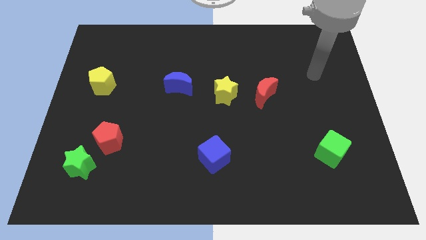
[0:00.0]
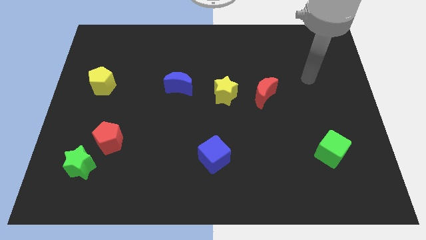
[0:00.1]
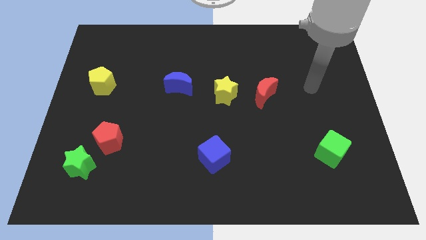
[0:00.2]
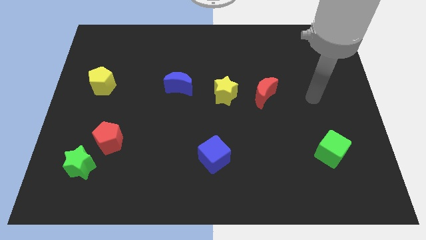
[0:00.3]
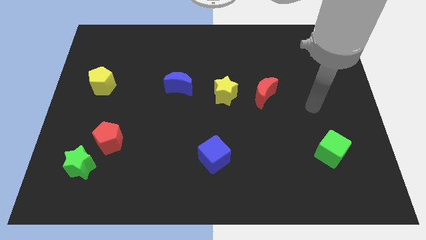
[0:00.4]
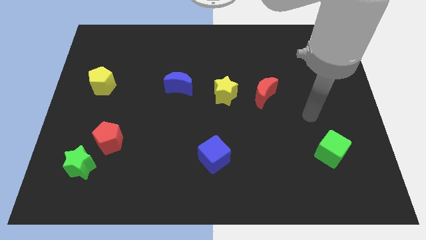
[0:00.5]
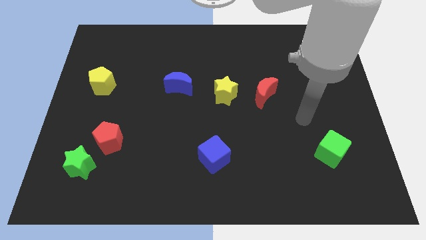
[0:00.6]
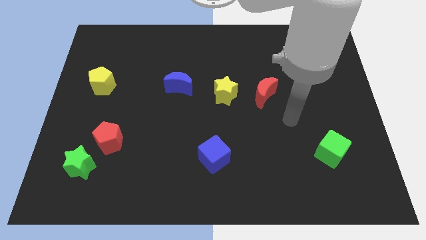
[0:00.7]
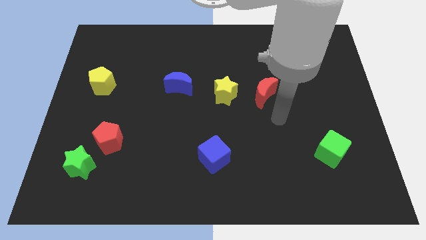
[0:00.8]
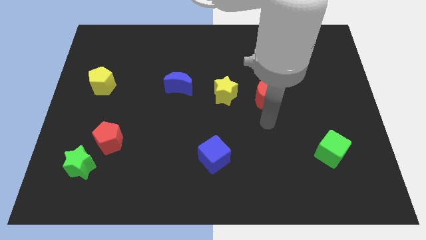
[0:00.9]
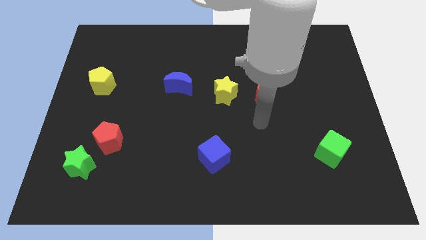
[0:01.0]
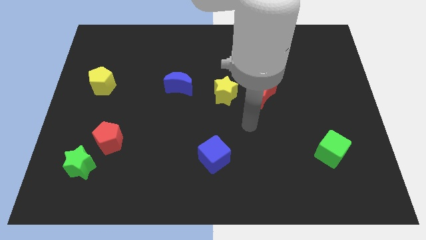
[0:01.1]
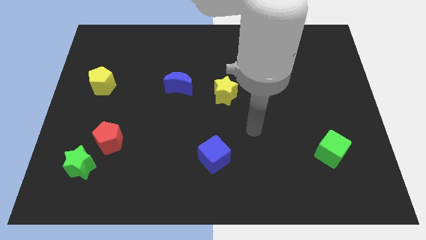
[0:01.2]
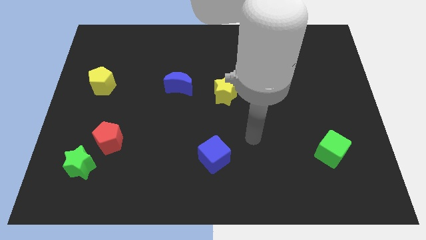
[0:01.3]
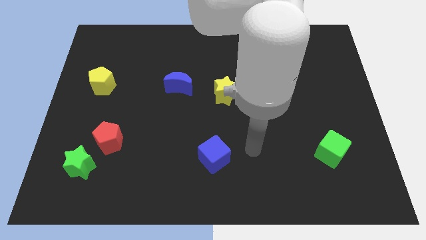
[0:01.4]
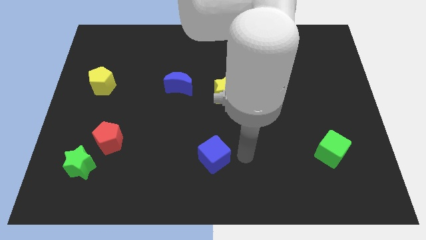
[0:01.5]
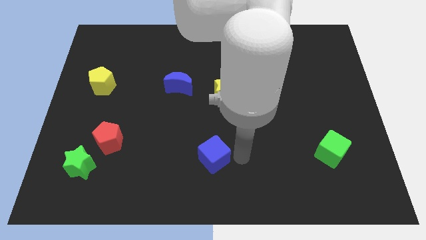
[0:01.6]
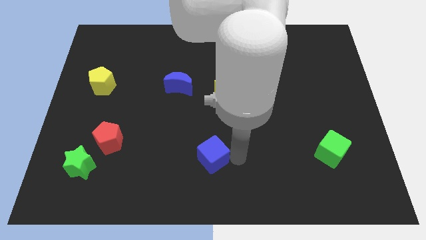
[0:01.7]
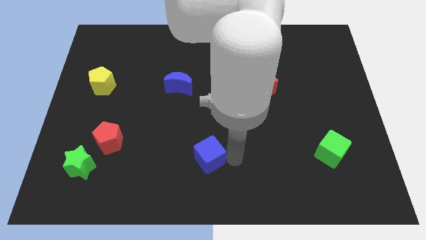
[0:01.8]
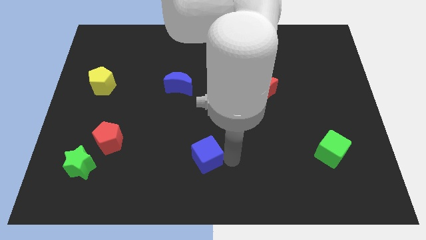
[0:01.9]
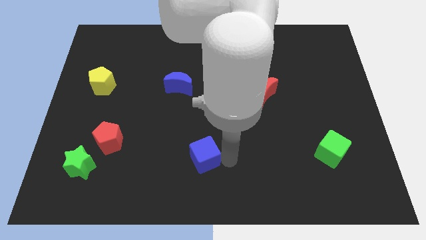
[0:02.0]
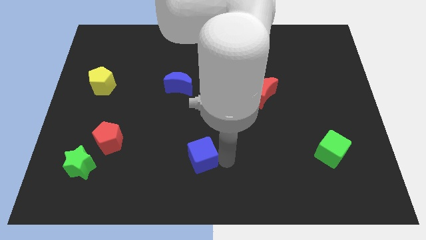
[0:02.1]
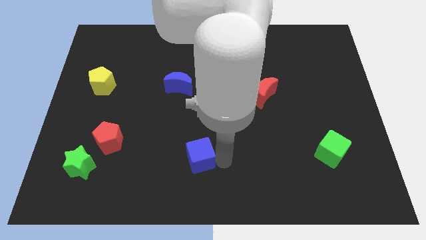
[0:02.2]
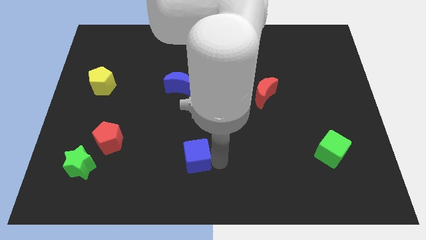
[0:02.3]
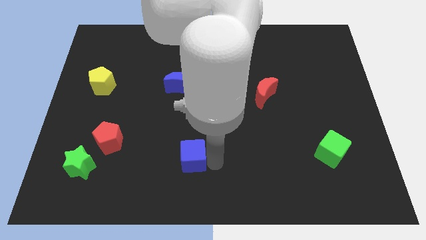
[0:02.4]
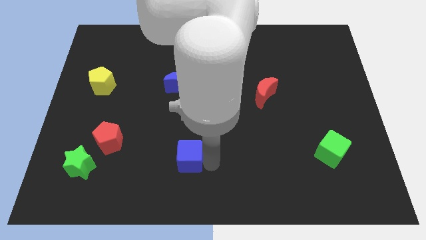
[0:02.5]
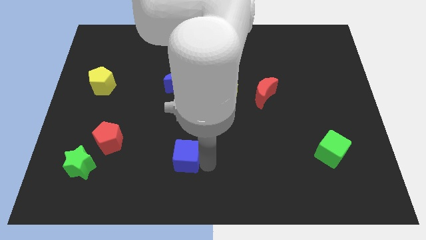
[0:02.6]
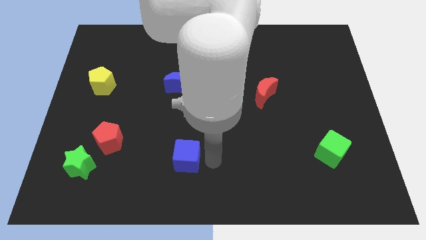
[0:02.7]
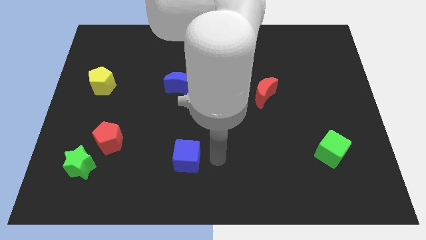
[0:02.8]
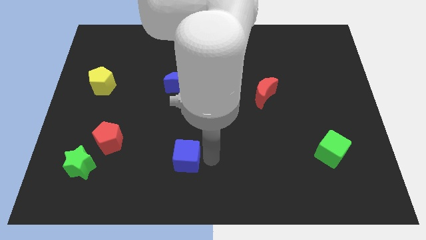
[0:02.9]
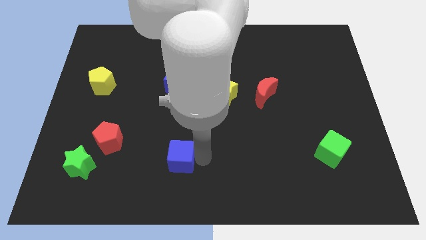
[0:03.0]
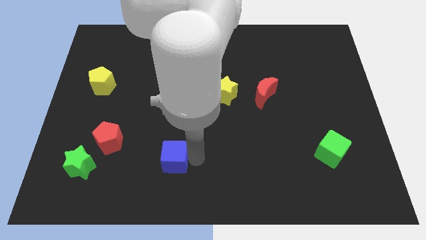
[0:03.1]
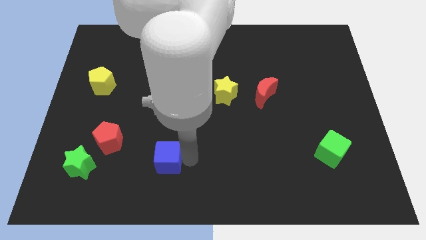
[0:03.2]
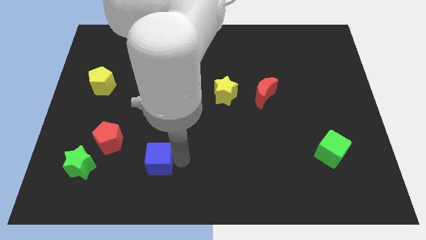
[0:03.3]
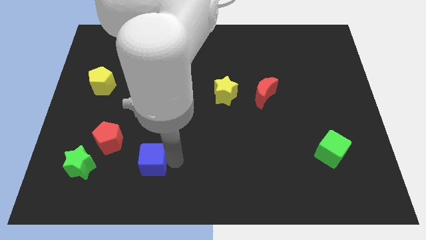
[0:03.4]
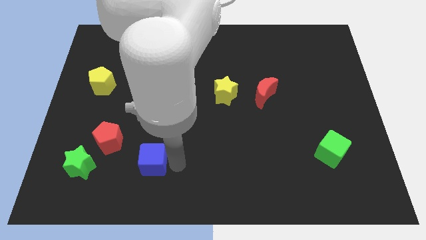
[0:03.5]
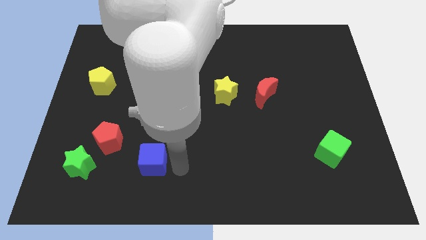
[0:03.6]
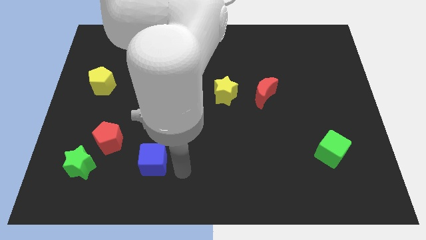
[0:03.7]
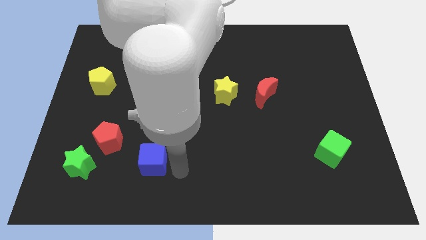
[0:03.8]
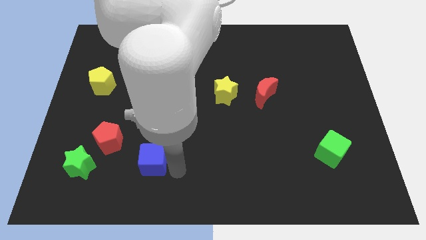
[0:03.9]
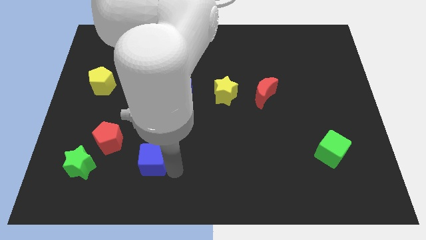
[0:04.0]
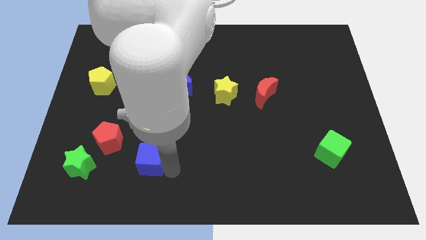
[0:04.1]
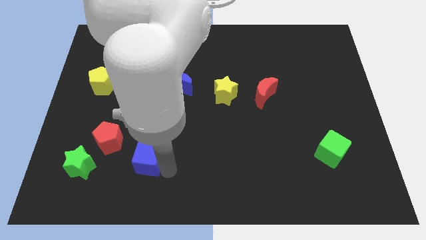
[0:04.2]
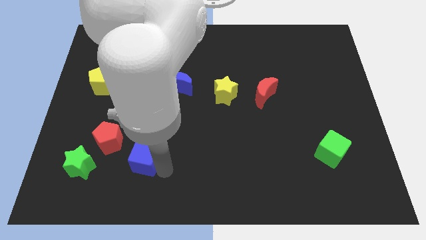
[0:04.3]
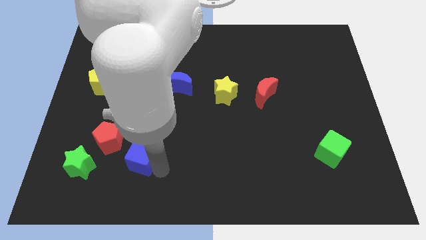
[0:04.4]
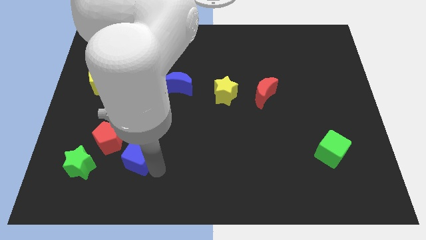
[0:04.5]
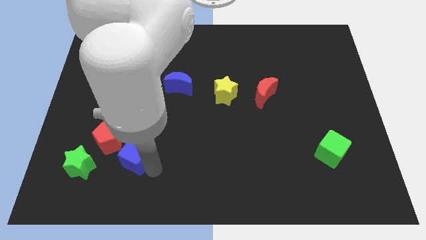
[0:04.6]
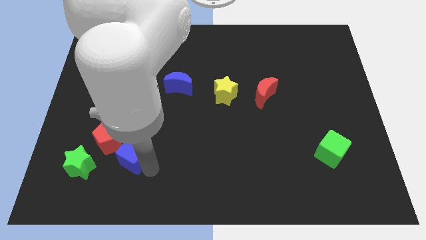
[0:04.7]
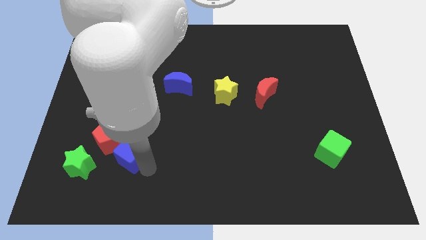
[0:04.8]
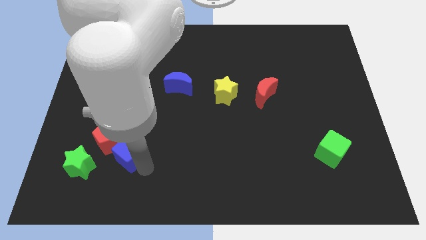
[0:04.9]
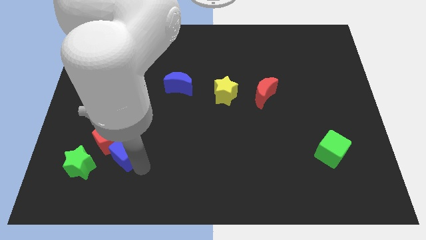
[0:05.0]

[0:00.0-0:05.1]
push the blue cube close to the red pentagon

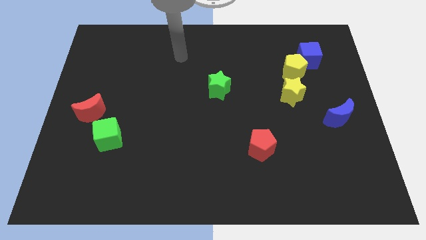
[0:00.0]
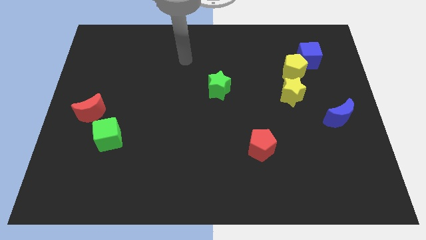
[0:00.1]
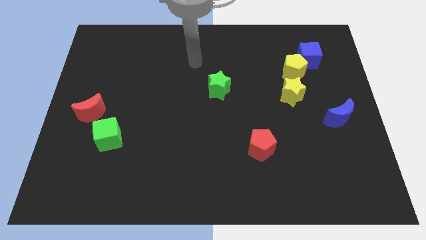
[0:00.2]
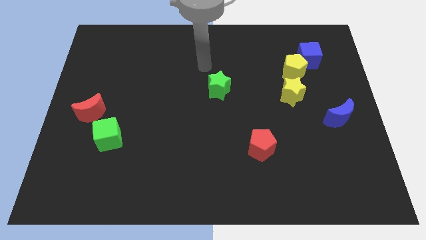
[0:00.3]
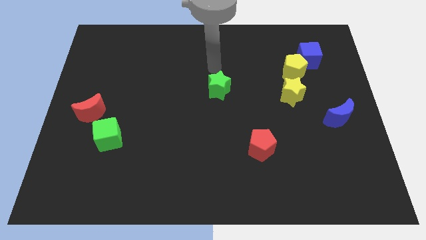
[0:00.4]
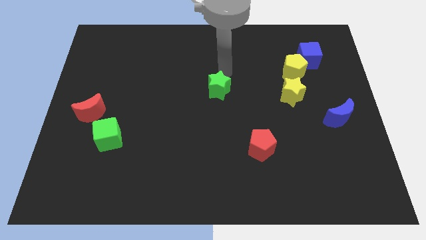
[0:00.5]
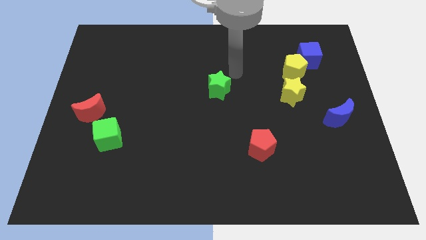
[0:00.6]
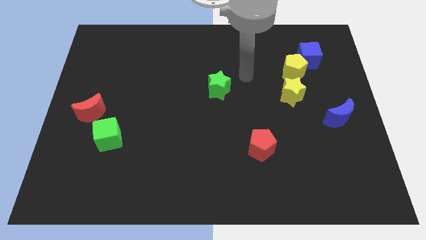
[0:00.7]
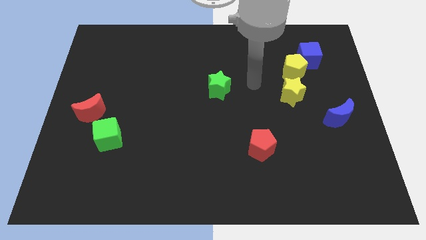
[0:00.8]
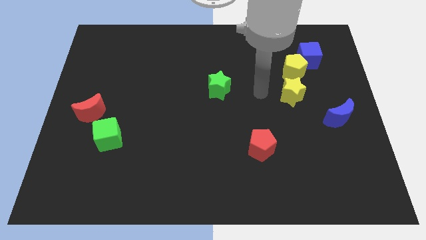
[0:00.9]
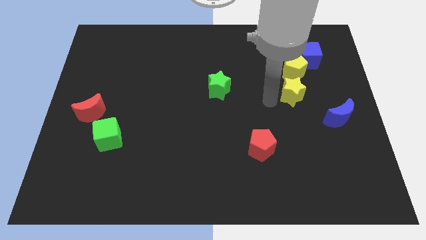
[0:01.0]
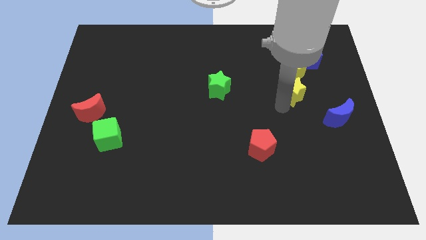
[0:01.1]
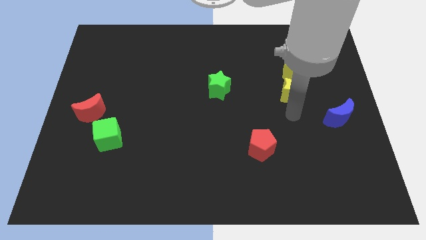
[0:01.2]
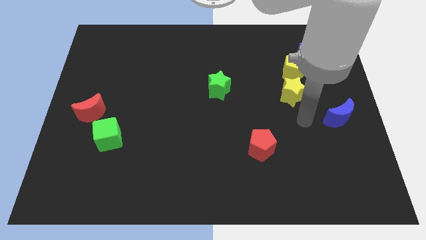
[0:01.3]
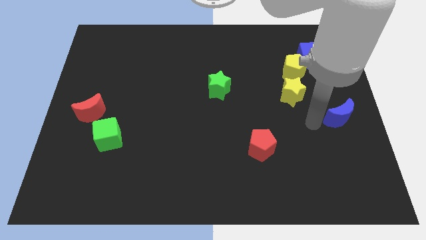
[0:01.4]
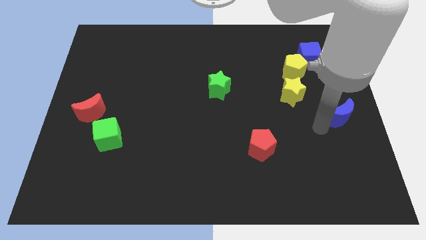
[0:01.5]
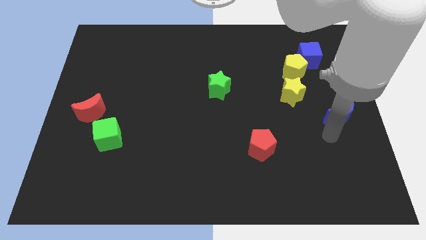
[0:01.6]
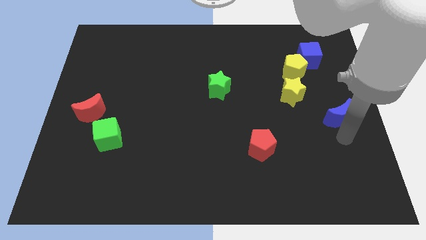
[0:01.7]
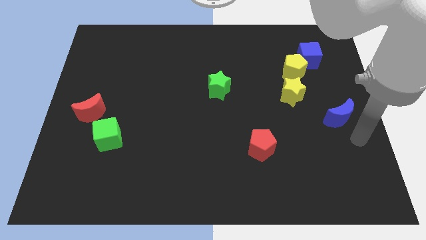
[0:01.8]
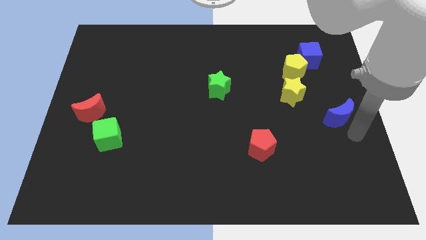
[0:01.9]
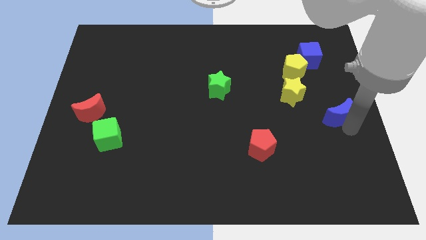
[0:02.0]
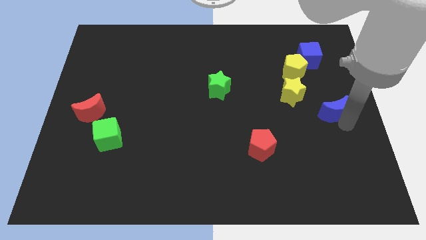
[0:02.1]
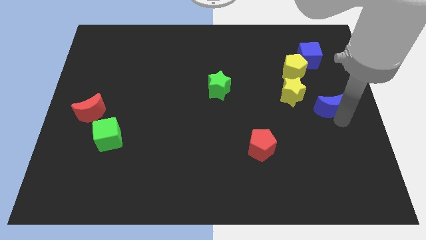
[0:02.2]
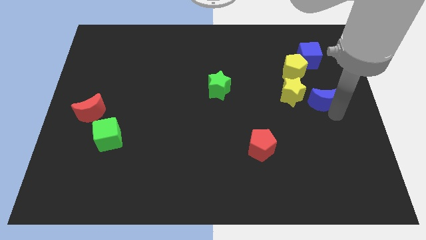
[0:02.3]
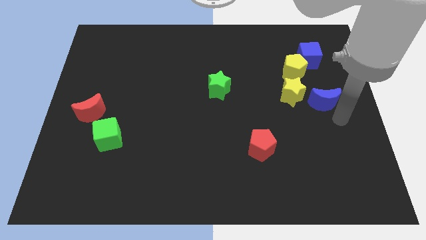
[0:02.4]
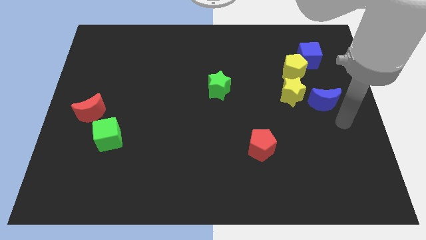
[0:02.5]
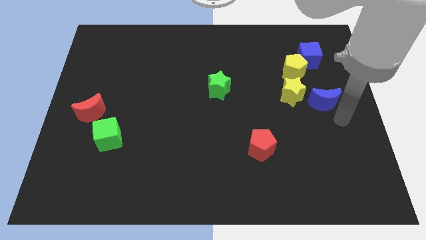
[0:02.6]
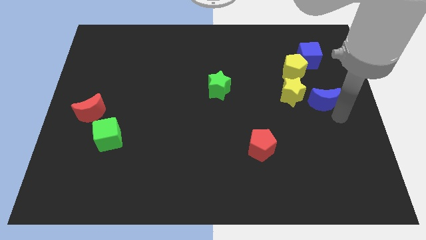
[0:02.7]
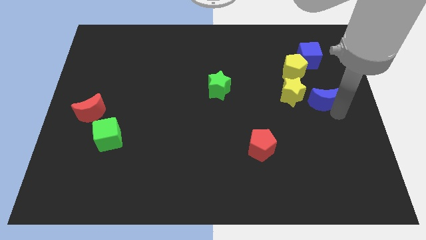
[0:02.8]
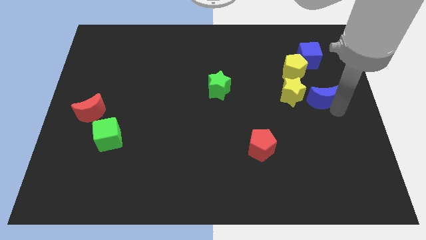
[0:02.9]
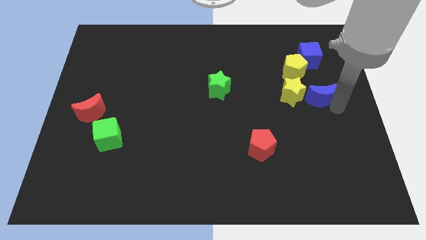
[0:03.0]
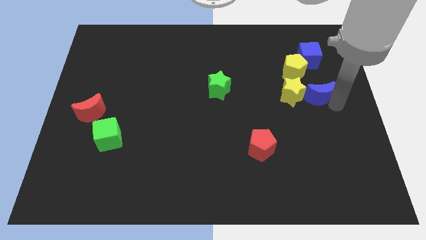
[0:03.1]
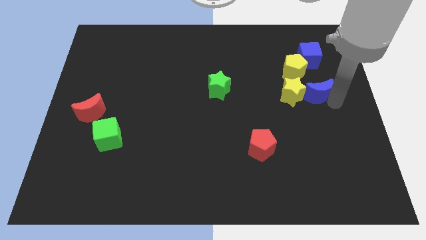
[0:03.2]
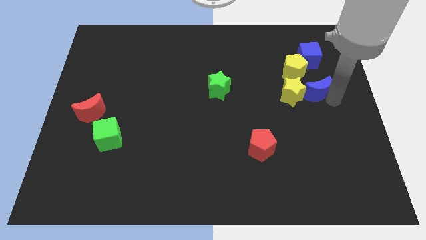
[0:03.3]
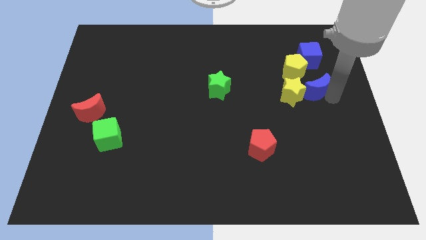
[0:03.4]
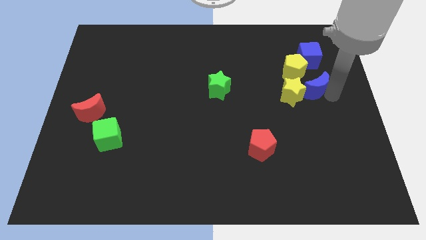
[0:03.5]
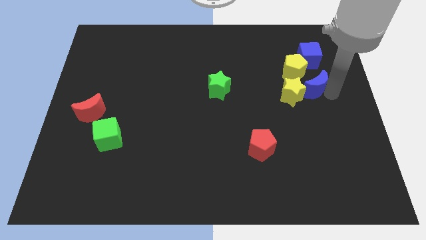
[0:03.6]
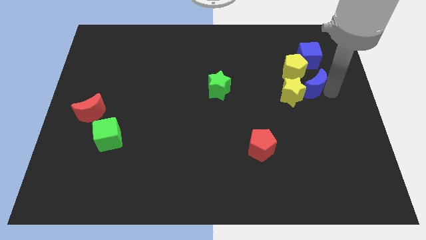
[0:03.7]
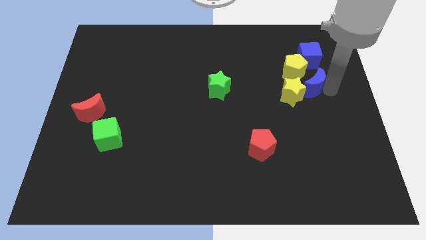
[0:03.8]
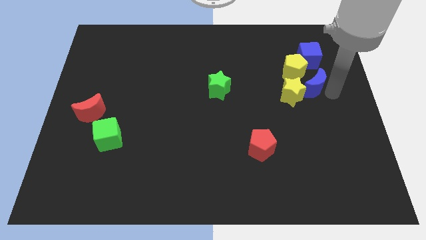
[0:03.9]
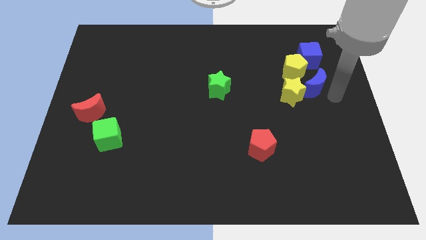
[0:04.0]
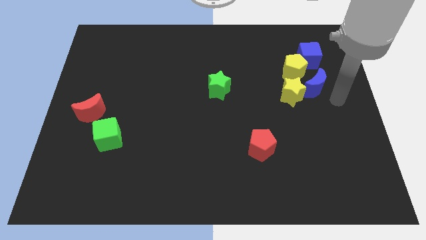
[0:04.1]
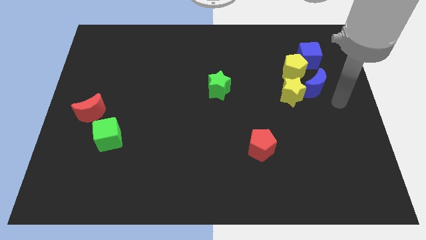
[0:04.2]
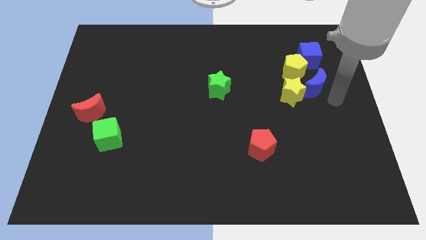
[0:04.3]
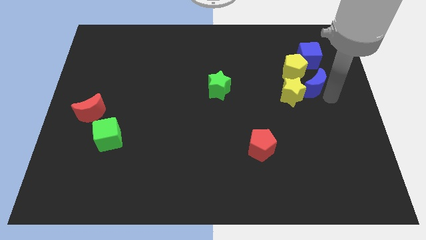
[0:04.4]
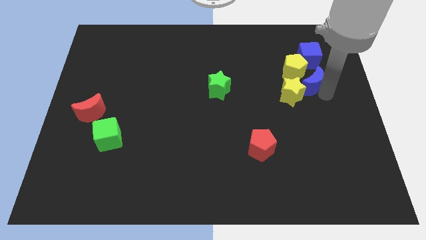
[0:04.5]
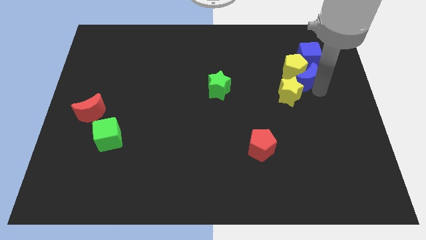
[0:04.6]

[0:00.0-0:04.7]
slide the blue moon towards the yellow pentagon
